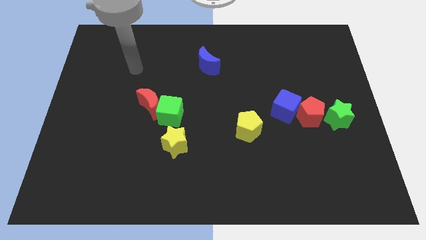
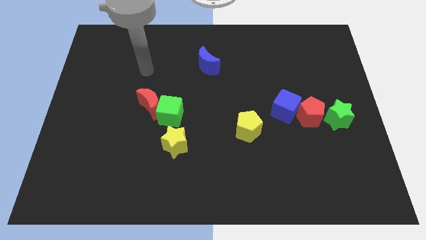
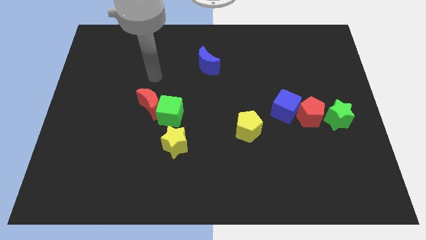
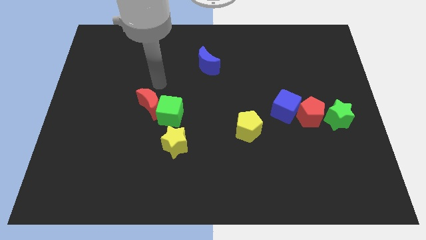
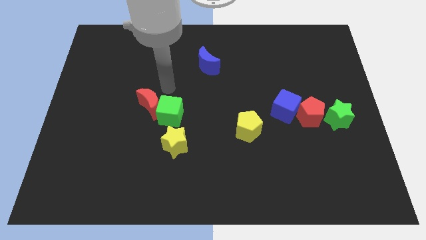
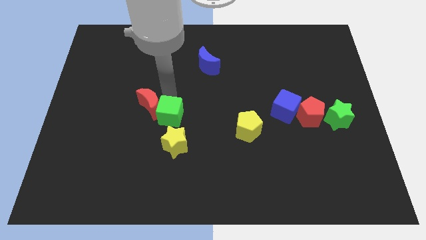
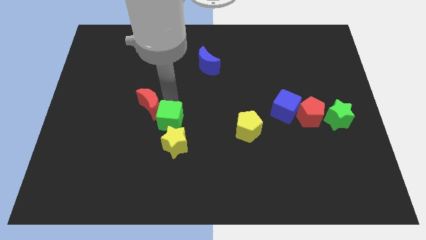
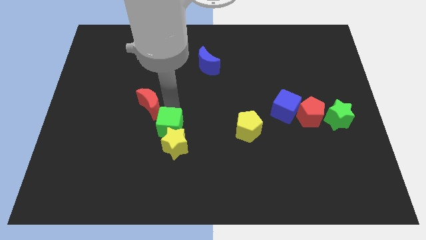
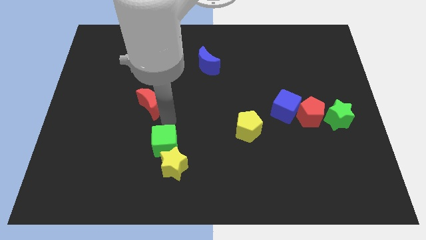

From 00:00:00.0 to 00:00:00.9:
pull the red moon apart from the green cube

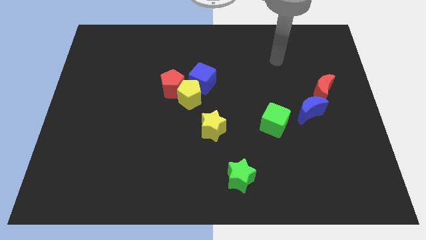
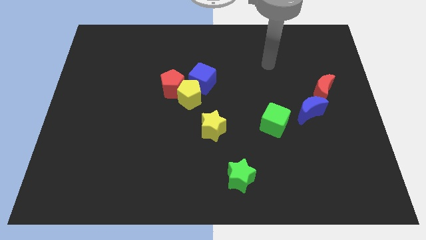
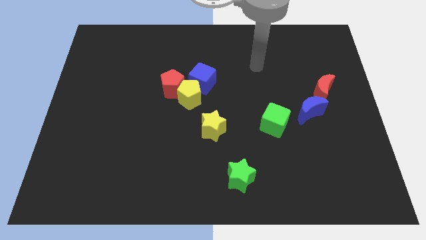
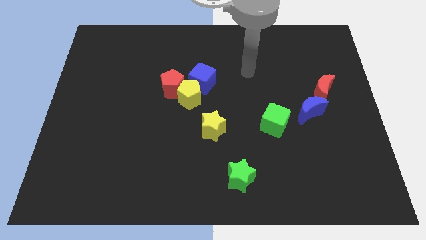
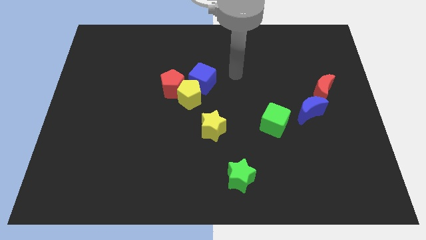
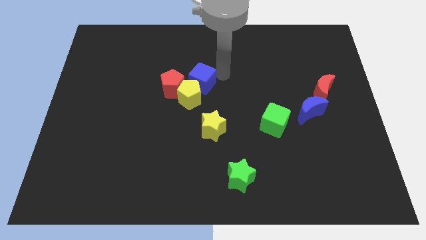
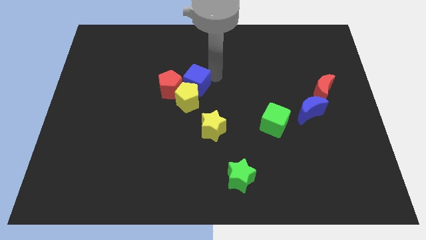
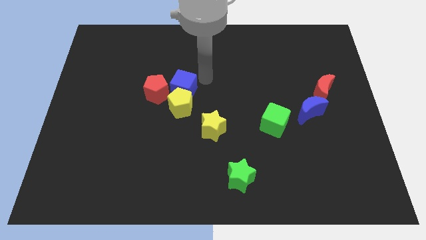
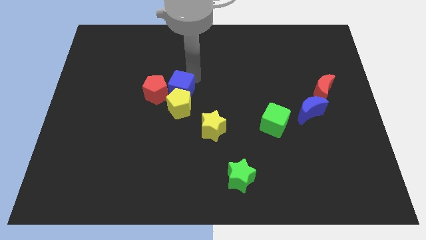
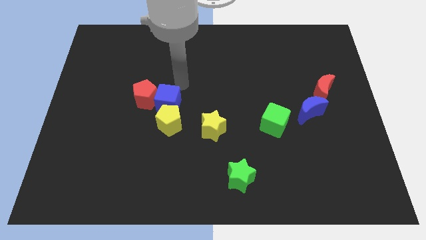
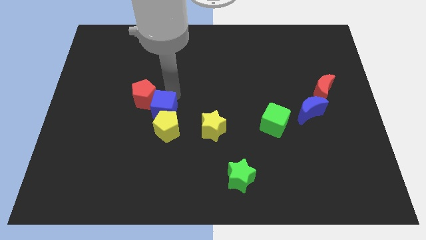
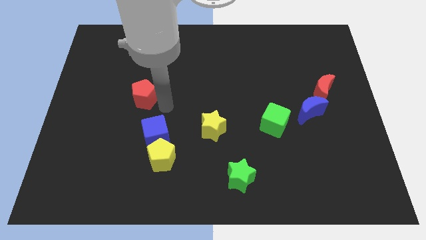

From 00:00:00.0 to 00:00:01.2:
pull the yellow pentagon apart from the red pentagon and blue cube

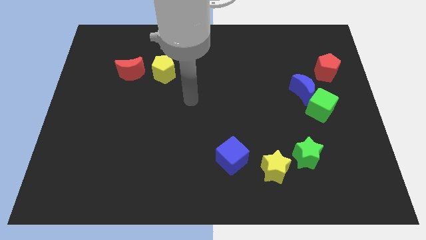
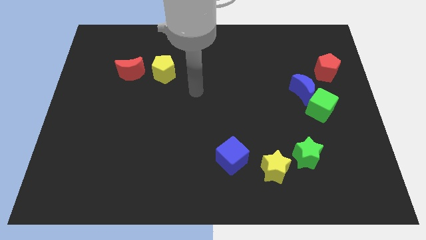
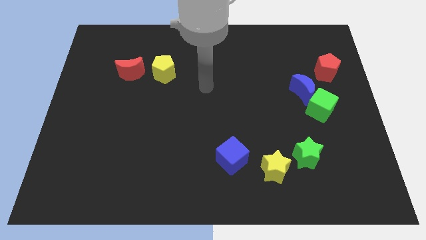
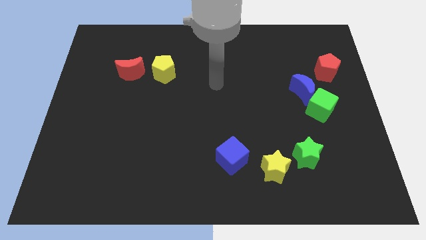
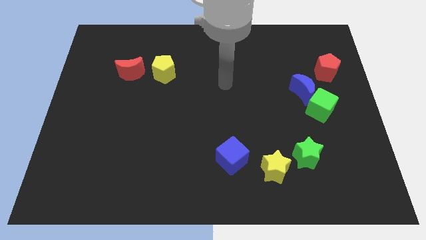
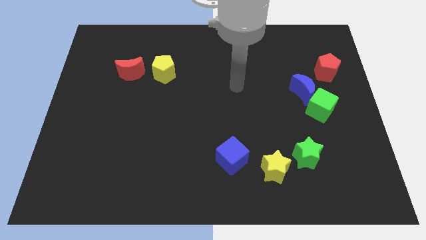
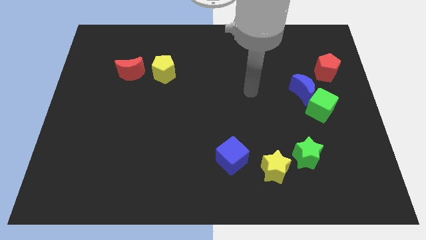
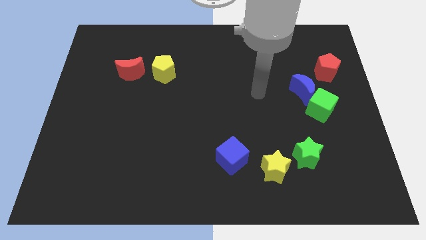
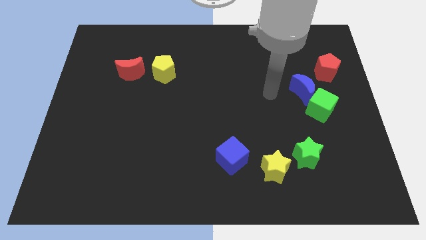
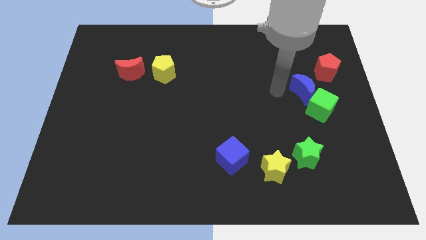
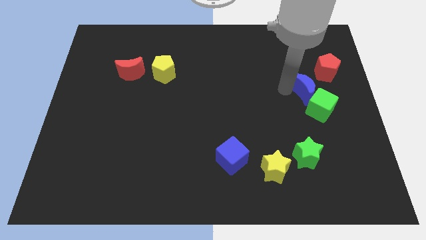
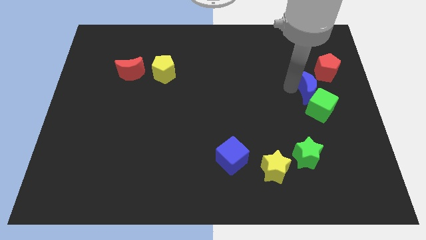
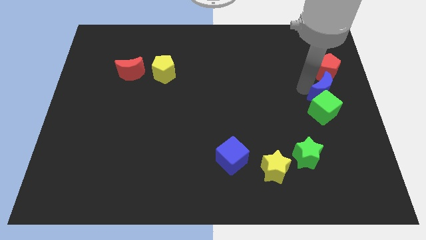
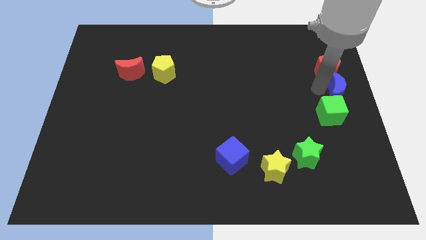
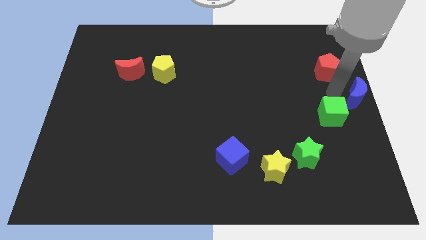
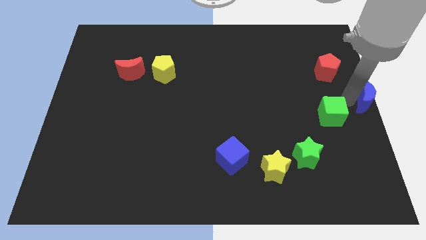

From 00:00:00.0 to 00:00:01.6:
move the green cube away from the blue moon

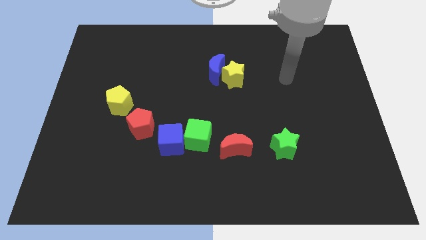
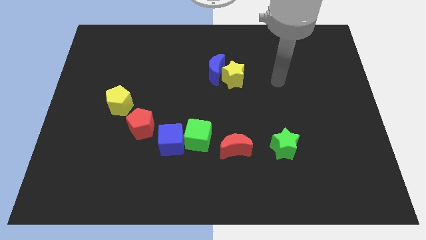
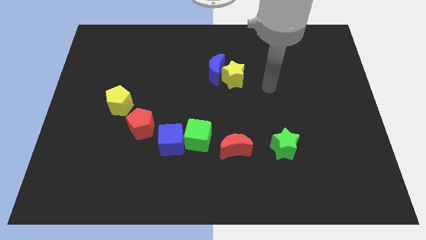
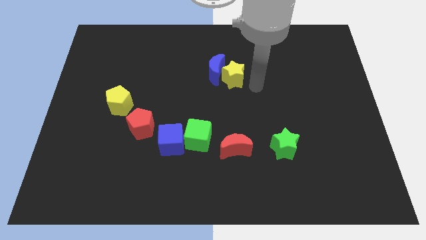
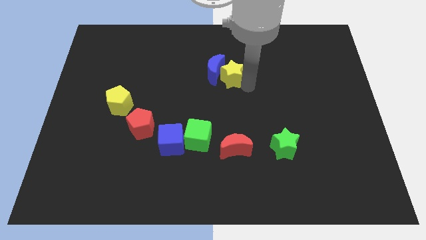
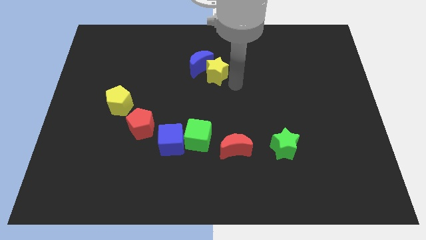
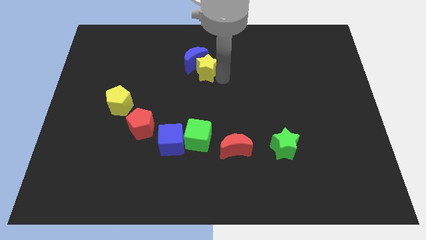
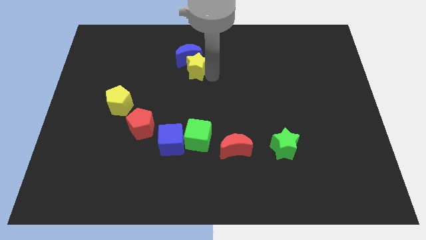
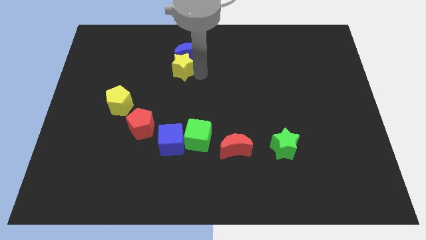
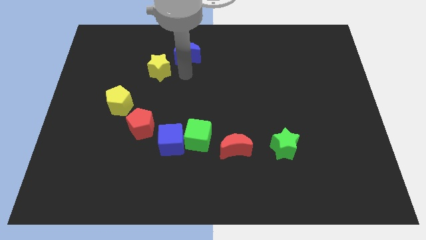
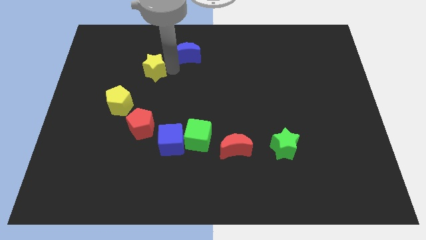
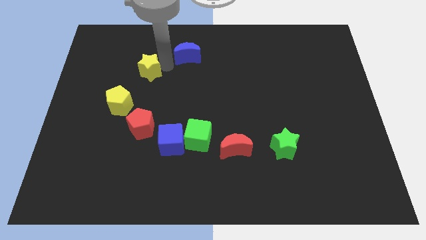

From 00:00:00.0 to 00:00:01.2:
move the blue moon away from the yellow star

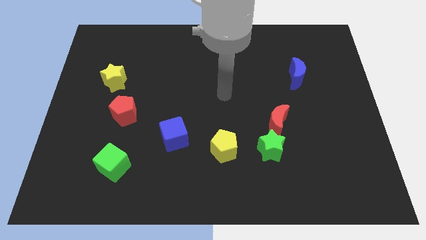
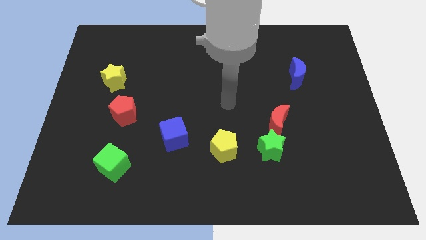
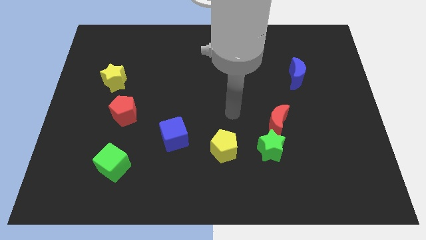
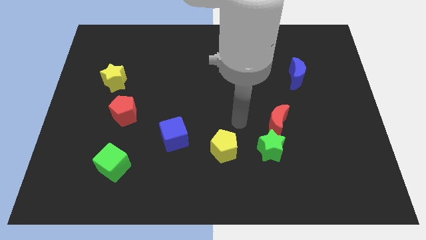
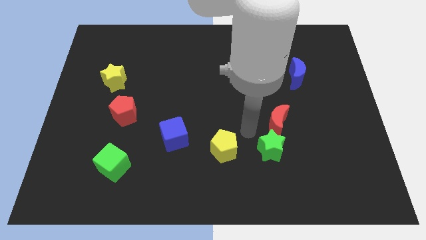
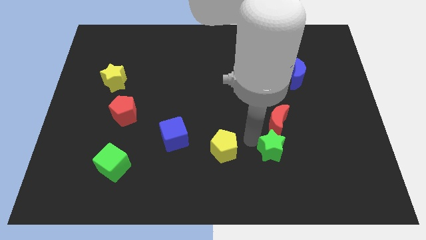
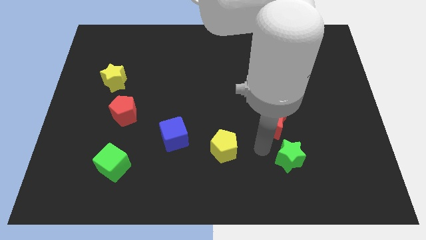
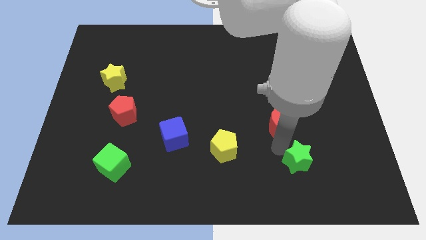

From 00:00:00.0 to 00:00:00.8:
separate the red moon from the green star

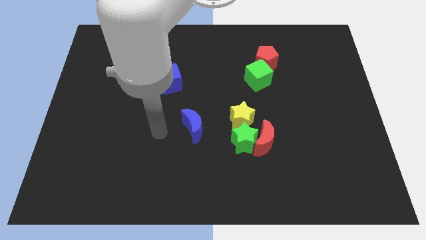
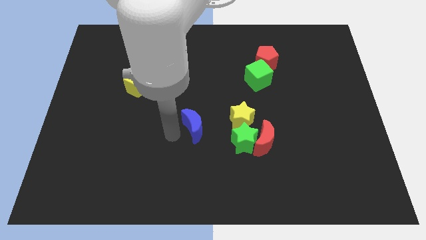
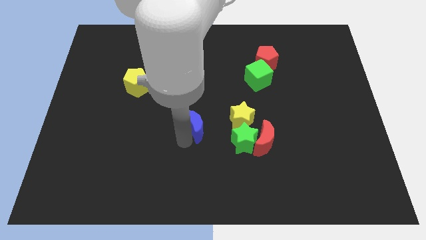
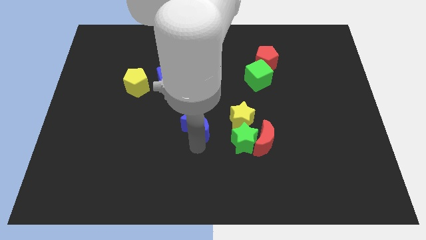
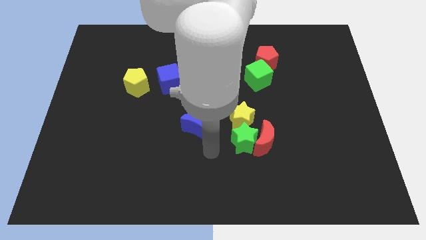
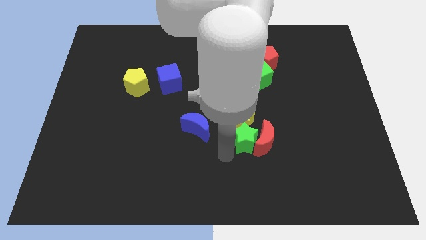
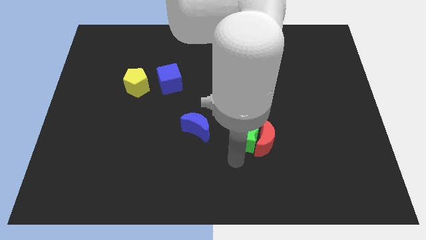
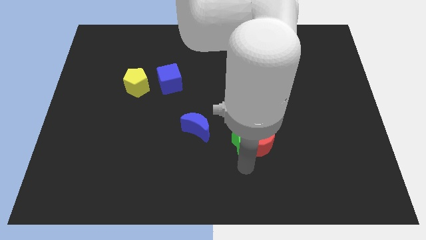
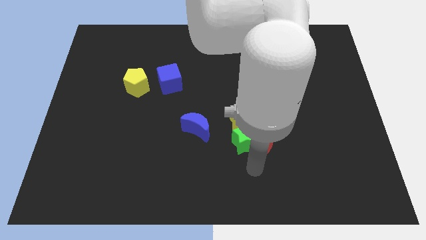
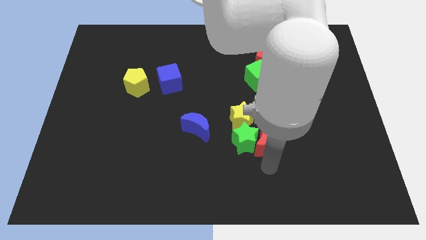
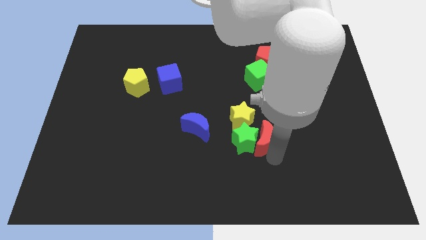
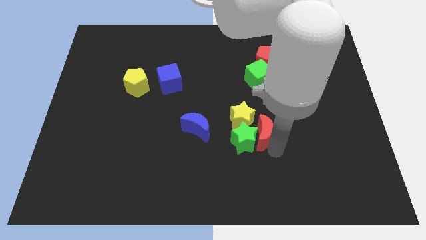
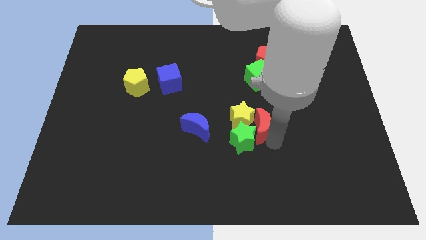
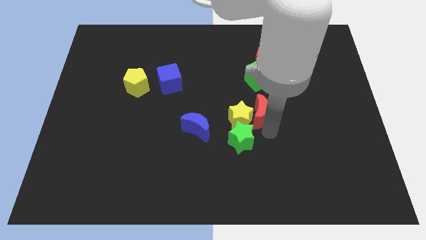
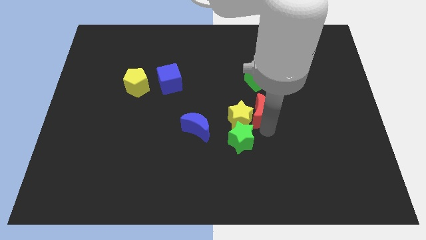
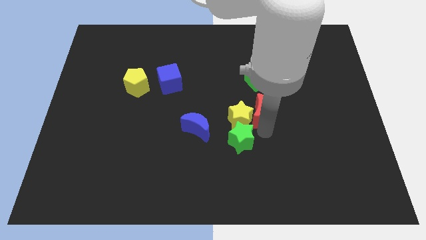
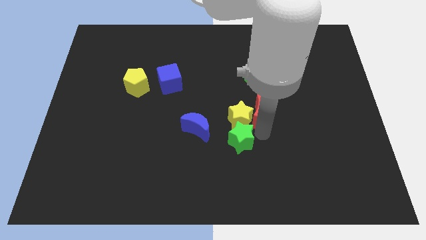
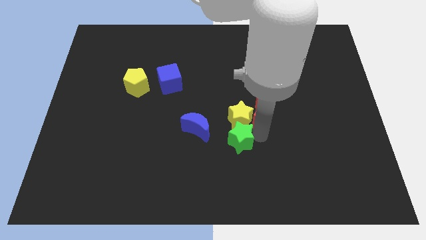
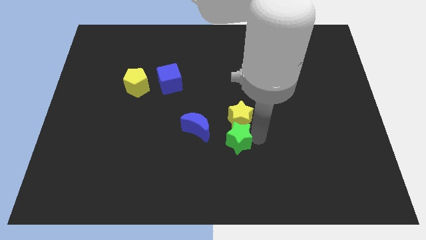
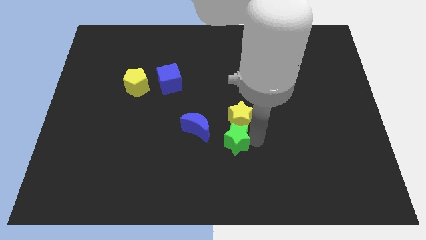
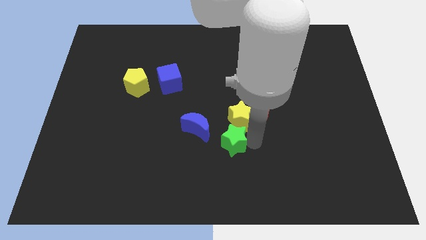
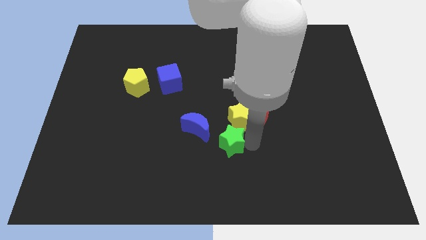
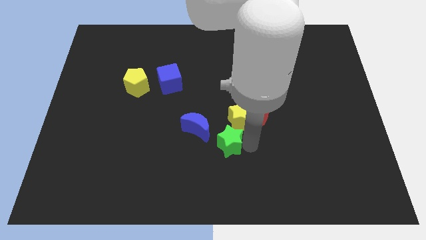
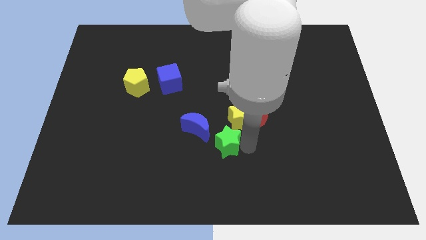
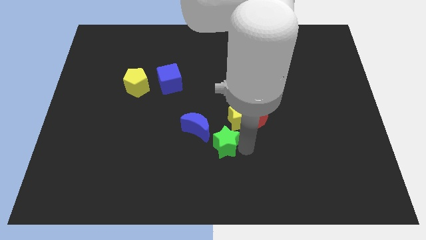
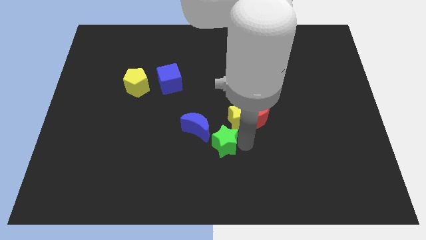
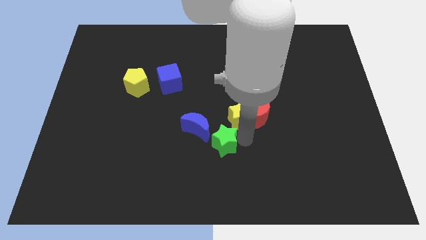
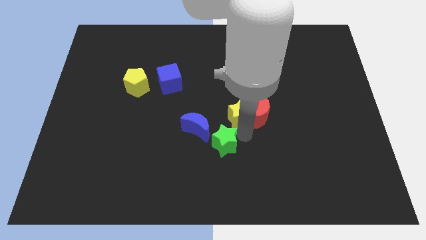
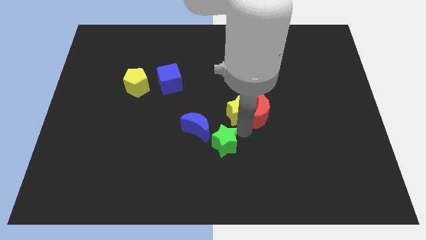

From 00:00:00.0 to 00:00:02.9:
pull the green star apart from the red moon and yellow star

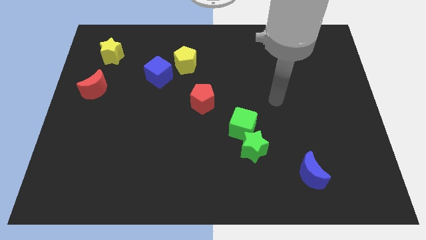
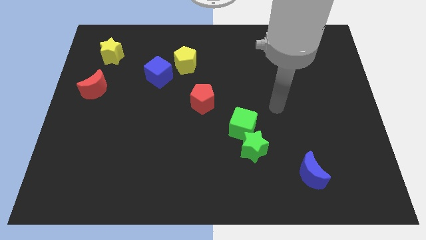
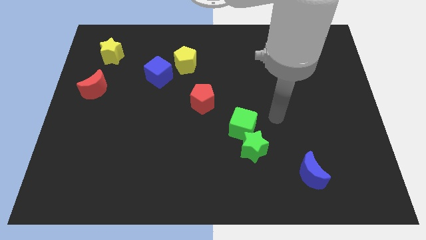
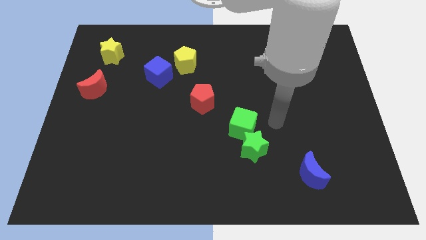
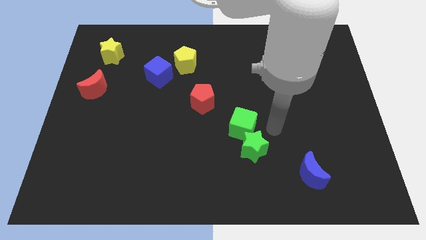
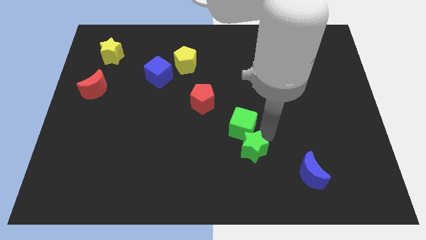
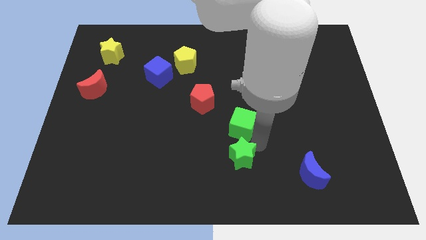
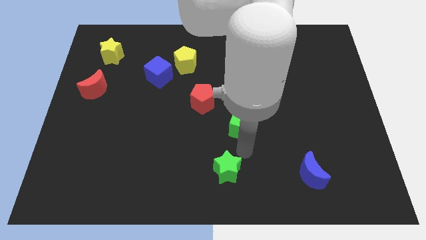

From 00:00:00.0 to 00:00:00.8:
move the green cube away from the green star
